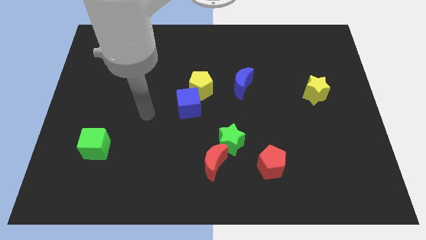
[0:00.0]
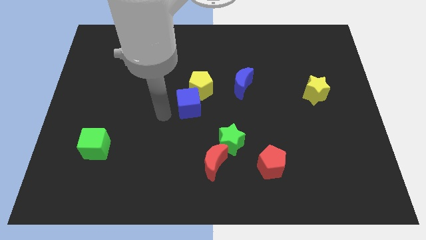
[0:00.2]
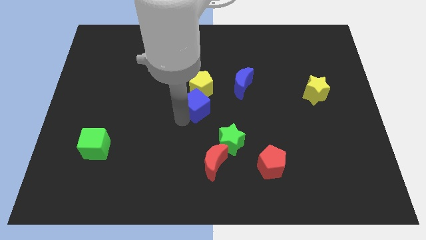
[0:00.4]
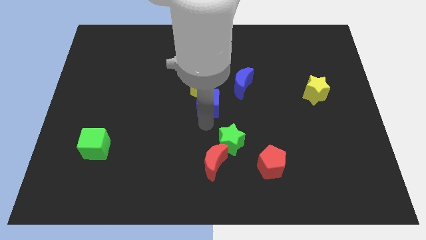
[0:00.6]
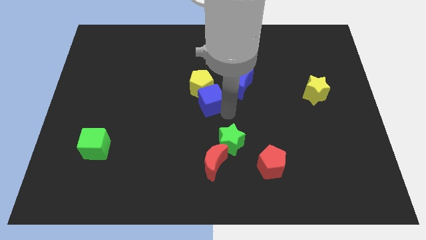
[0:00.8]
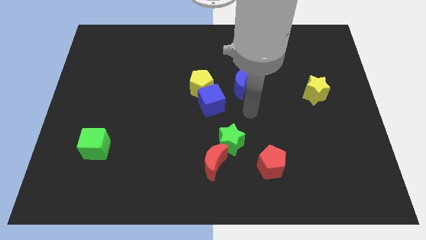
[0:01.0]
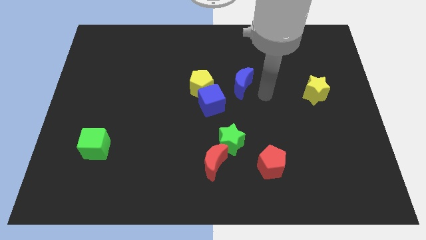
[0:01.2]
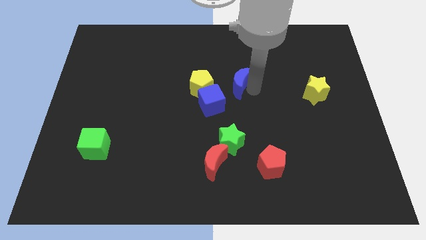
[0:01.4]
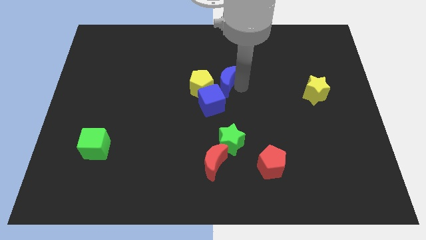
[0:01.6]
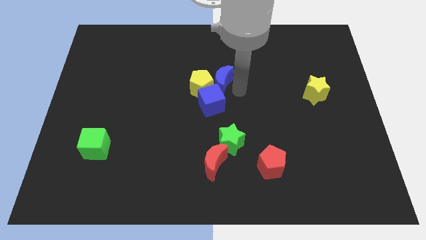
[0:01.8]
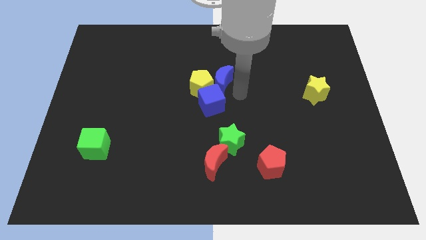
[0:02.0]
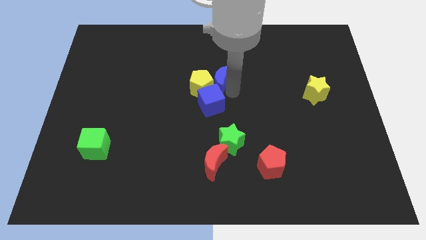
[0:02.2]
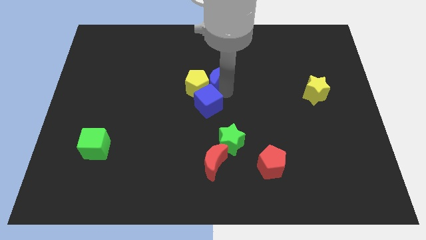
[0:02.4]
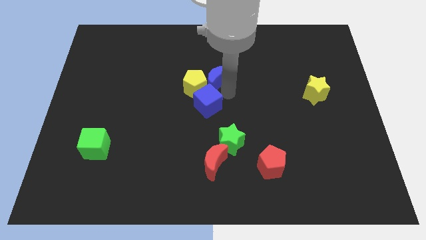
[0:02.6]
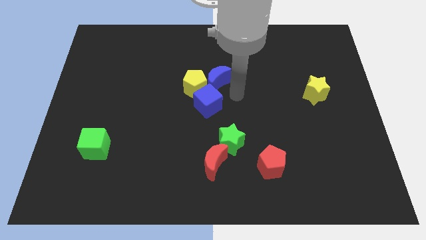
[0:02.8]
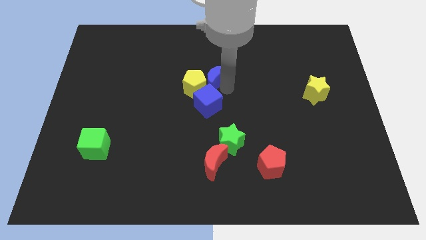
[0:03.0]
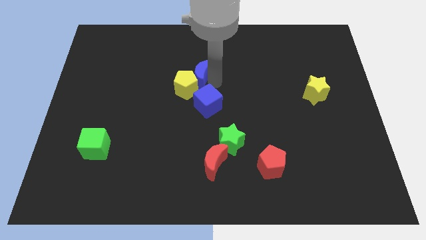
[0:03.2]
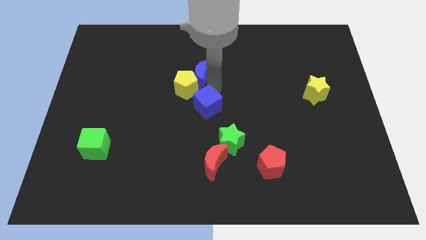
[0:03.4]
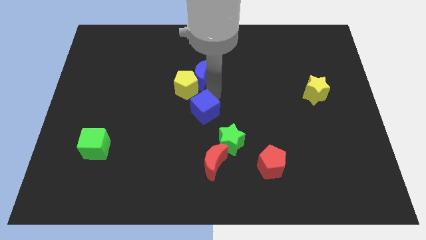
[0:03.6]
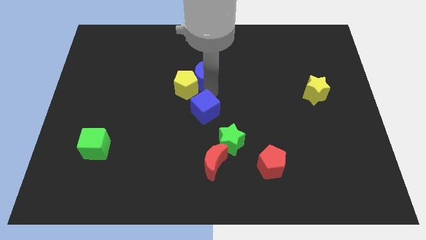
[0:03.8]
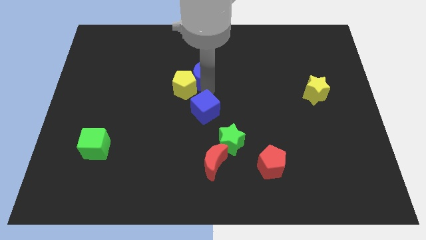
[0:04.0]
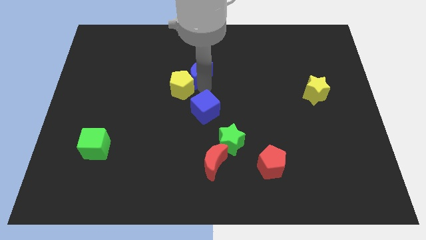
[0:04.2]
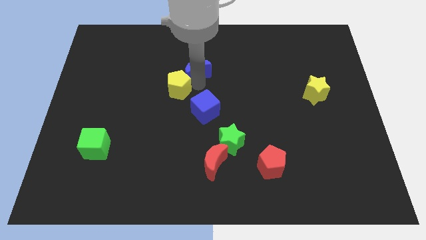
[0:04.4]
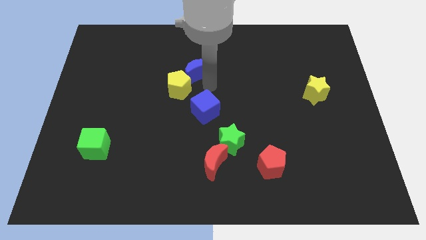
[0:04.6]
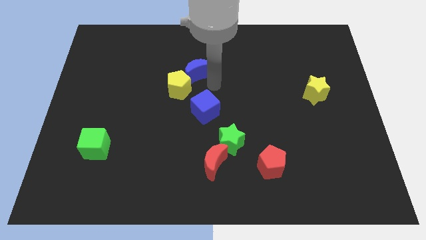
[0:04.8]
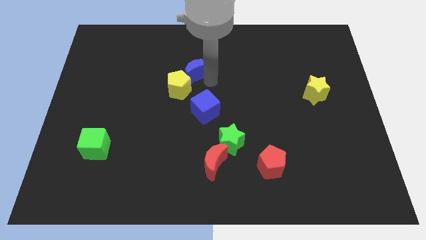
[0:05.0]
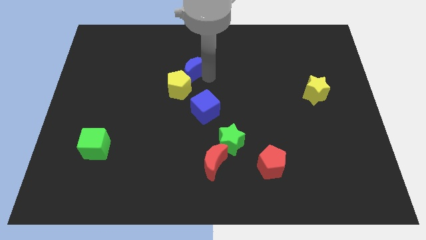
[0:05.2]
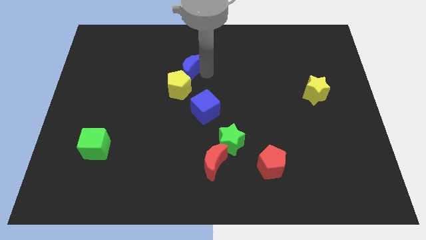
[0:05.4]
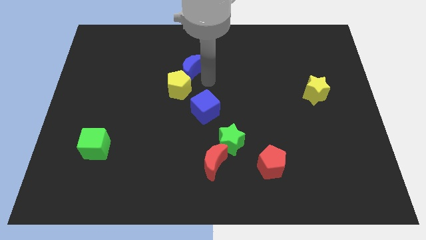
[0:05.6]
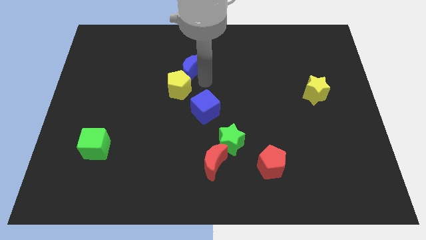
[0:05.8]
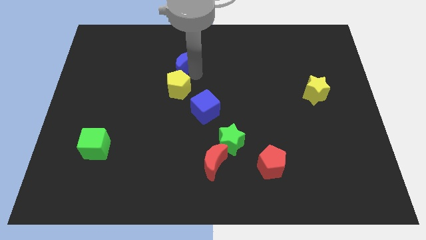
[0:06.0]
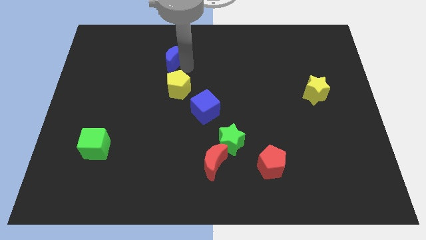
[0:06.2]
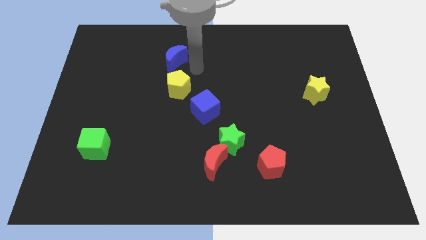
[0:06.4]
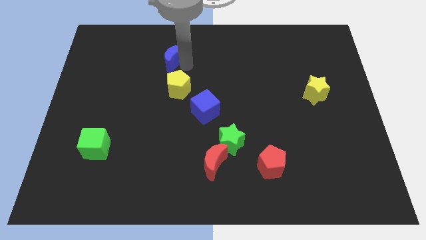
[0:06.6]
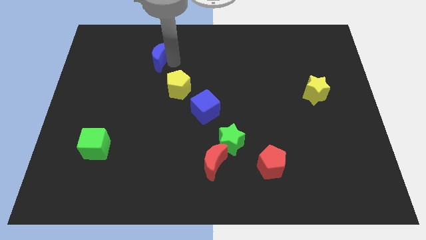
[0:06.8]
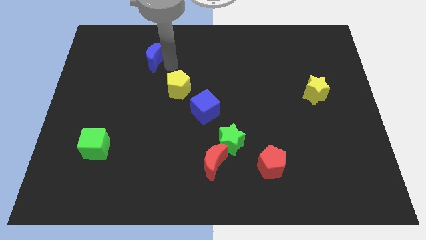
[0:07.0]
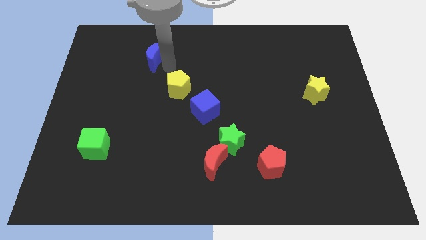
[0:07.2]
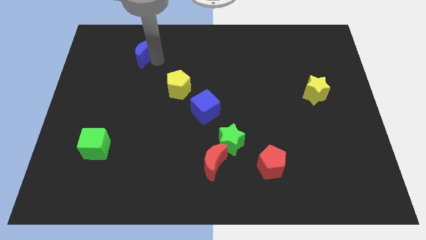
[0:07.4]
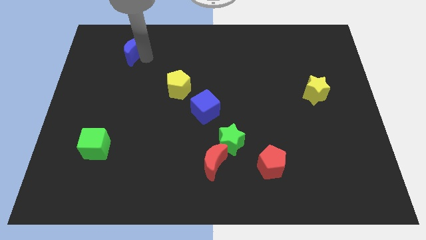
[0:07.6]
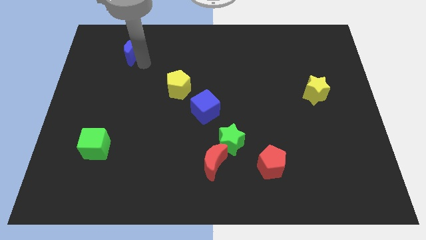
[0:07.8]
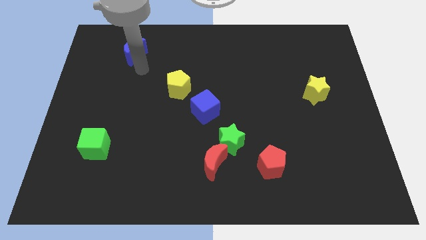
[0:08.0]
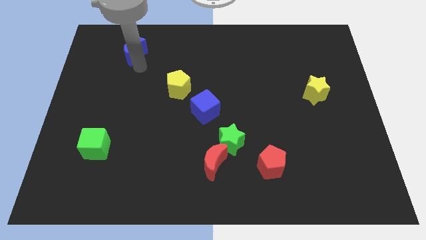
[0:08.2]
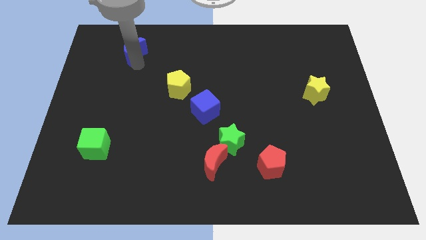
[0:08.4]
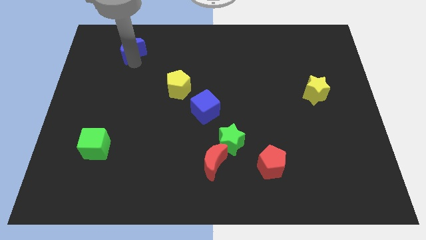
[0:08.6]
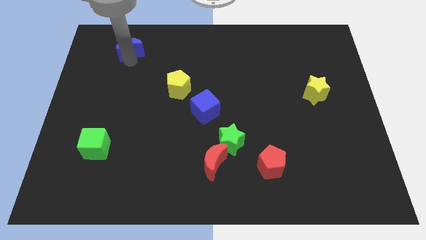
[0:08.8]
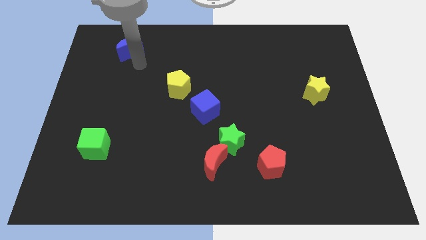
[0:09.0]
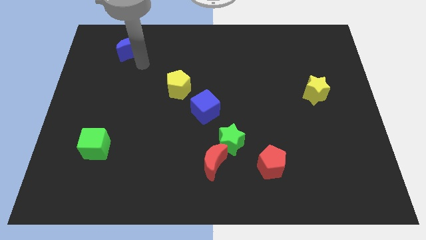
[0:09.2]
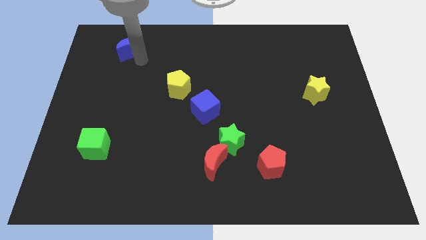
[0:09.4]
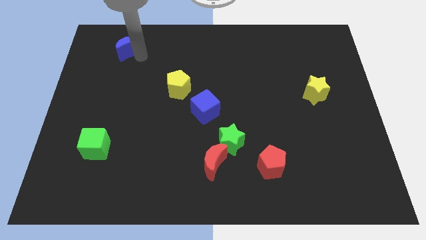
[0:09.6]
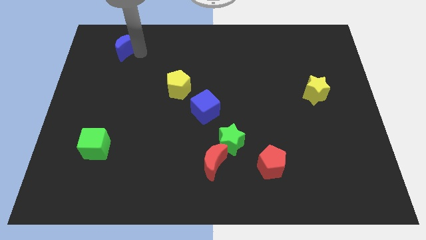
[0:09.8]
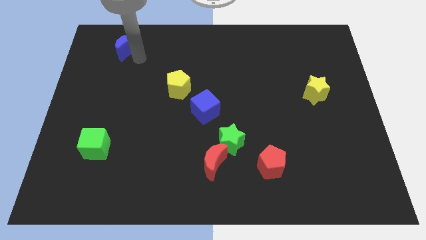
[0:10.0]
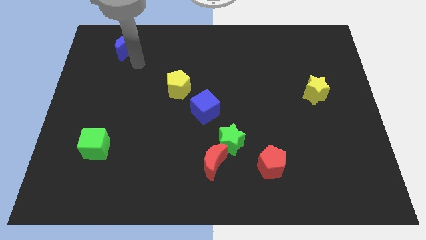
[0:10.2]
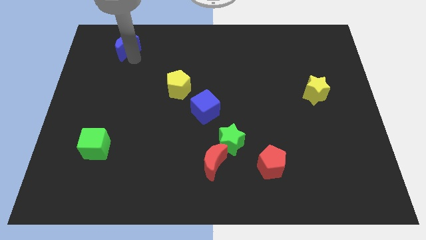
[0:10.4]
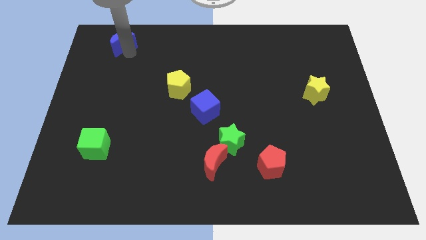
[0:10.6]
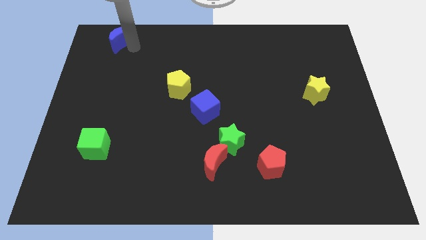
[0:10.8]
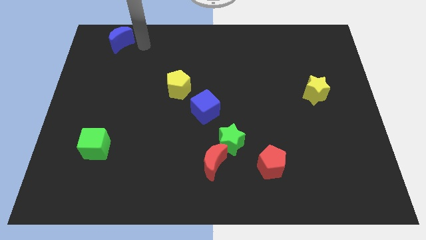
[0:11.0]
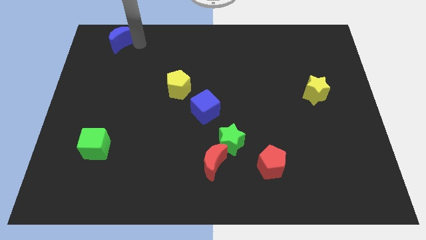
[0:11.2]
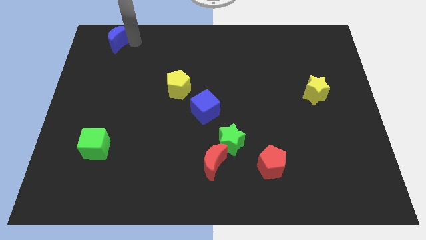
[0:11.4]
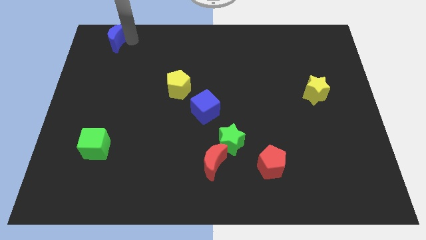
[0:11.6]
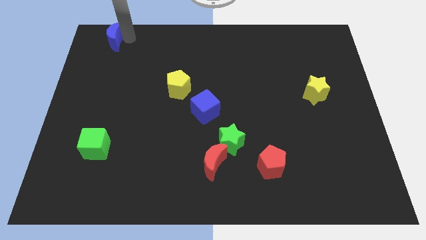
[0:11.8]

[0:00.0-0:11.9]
put the blue moon to the top left corner
